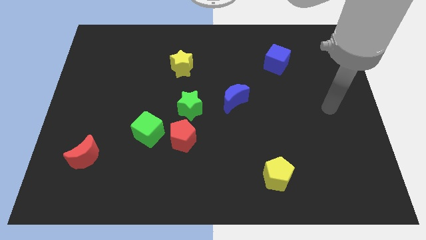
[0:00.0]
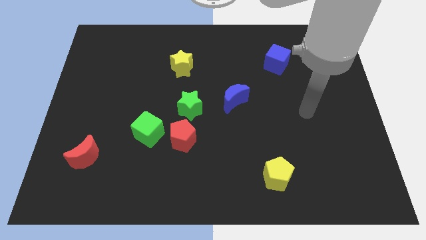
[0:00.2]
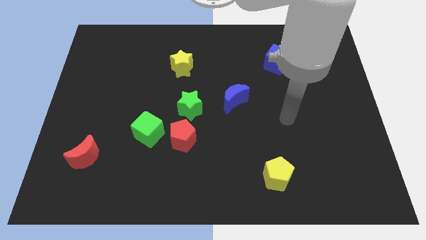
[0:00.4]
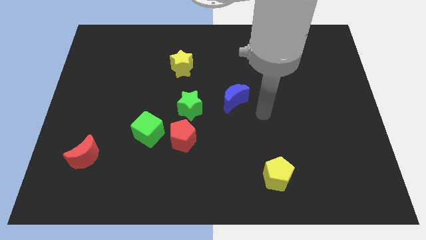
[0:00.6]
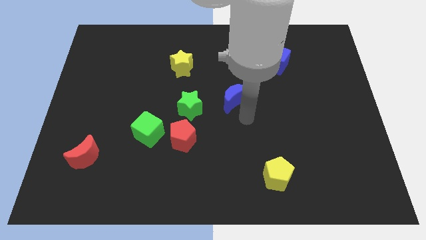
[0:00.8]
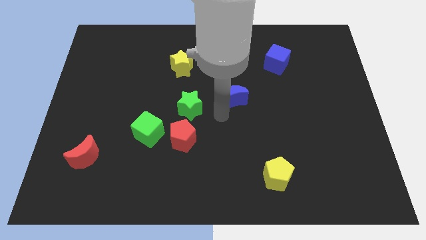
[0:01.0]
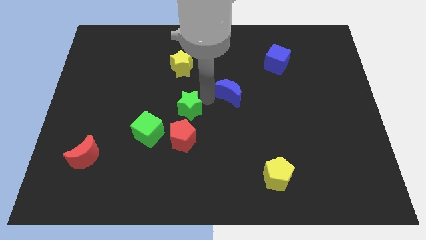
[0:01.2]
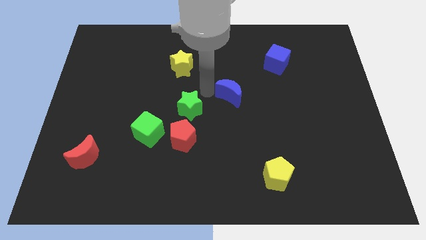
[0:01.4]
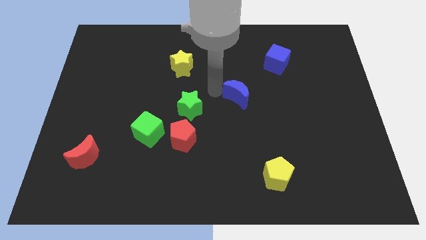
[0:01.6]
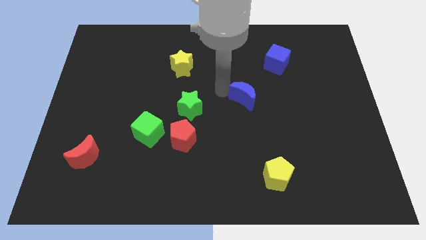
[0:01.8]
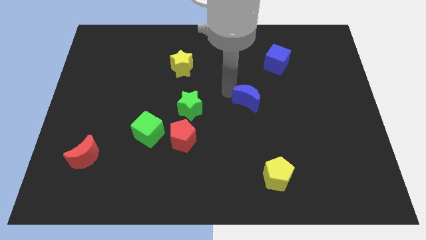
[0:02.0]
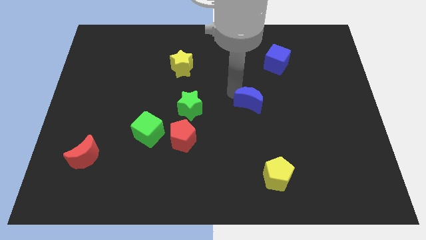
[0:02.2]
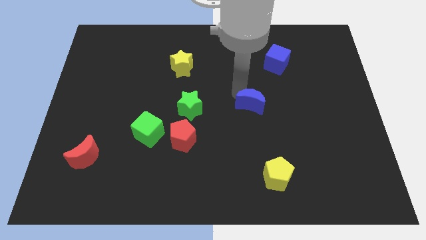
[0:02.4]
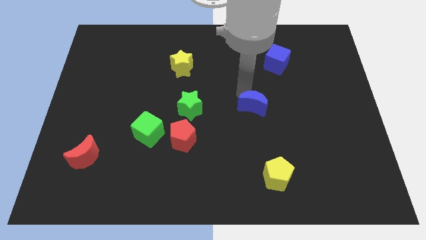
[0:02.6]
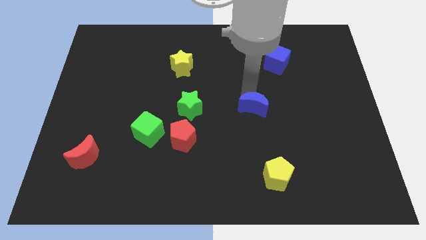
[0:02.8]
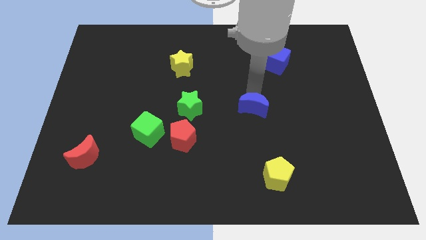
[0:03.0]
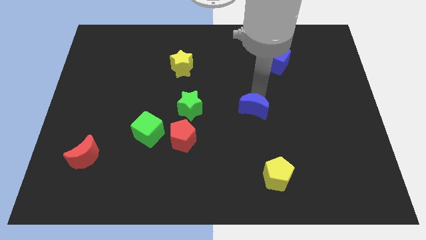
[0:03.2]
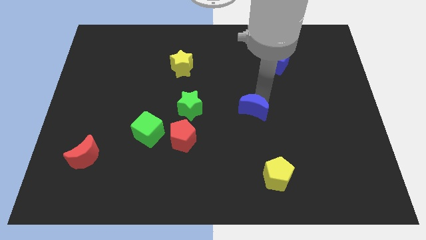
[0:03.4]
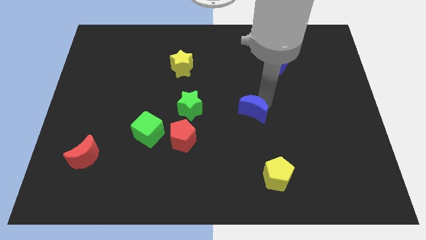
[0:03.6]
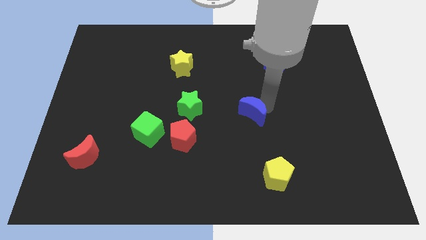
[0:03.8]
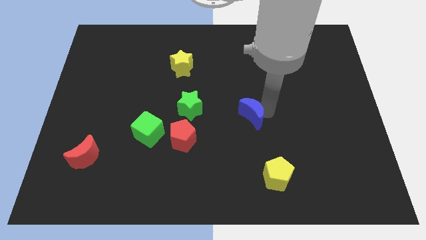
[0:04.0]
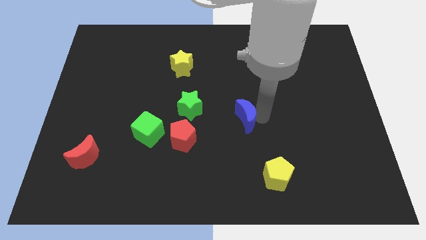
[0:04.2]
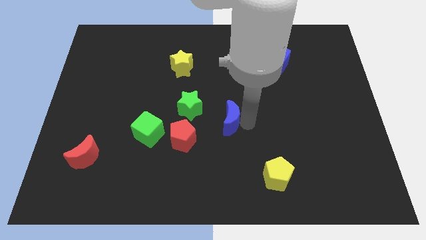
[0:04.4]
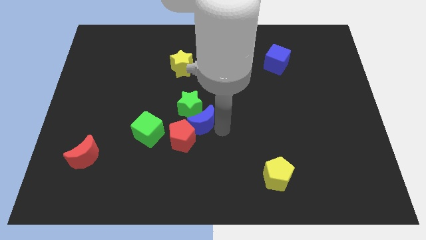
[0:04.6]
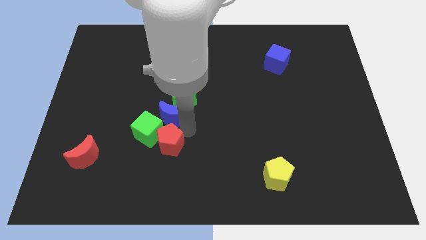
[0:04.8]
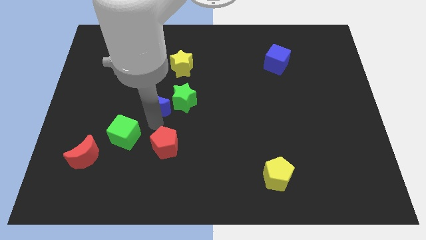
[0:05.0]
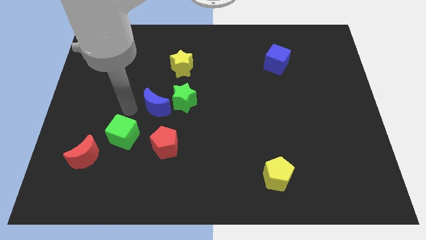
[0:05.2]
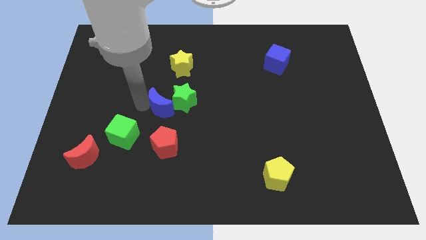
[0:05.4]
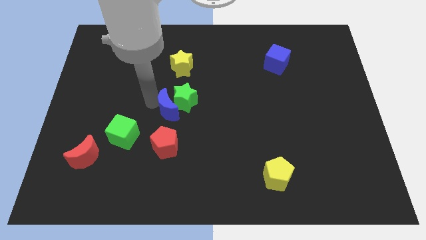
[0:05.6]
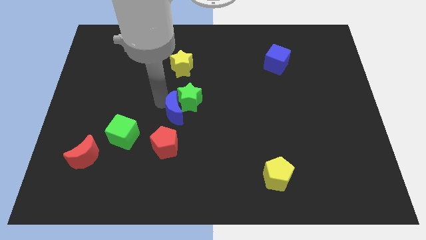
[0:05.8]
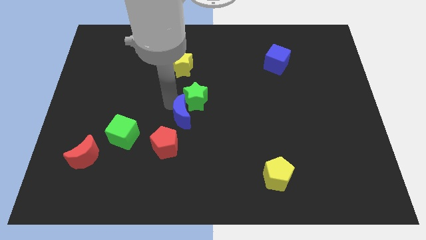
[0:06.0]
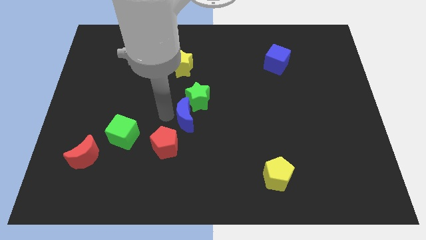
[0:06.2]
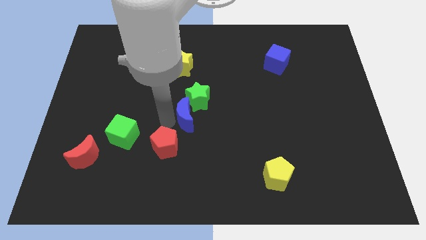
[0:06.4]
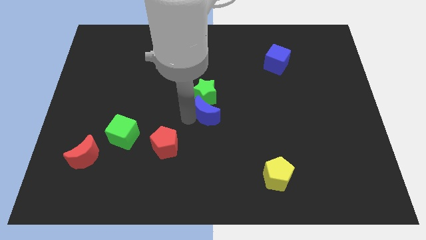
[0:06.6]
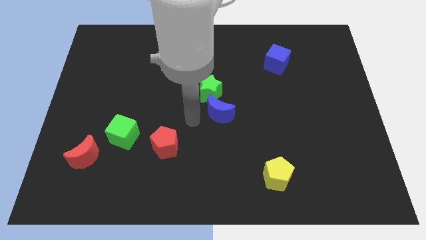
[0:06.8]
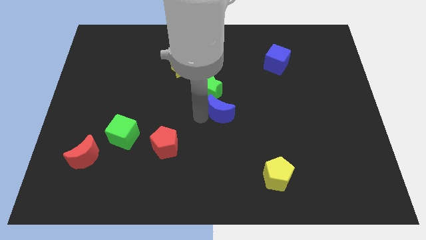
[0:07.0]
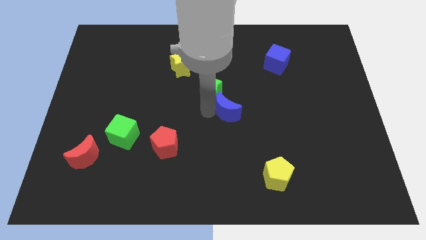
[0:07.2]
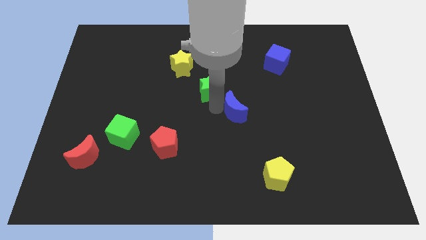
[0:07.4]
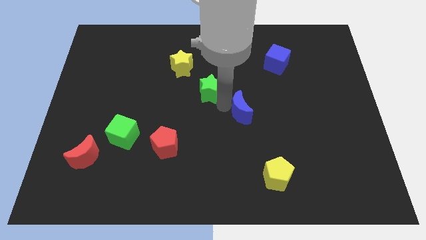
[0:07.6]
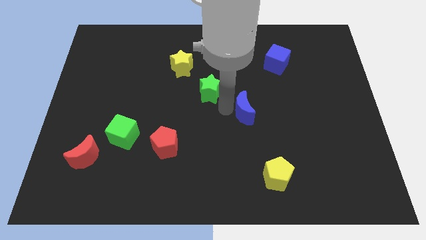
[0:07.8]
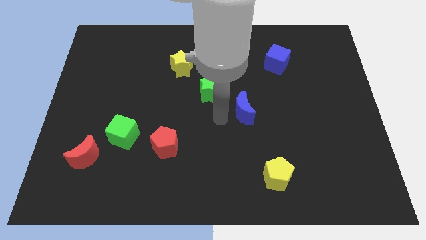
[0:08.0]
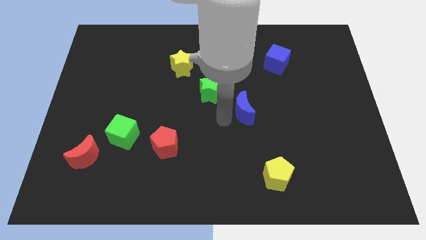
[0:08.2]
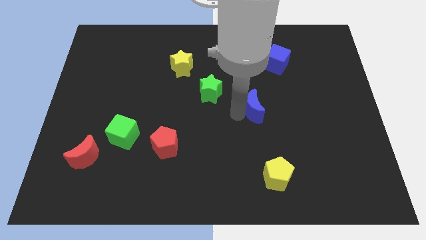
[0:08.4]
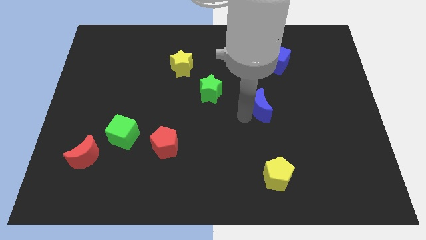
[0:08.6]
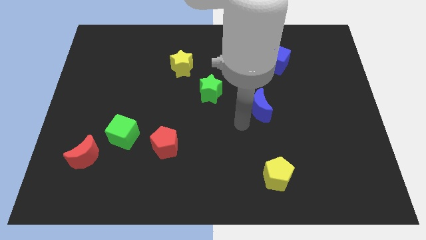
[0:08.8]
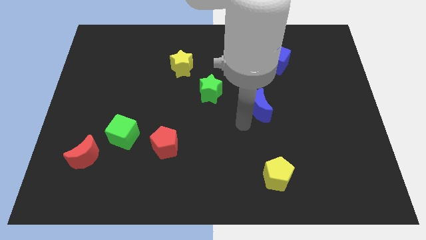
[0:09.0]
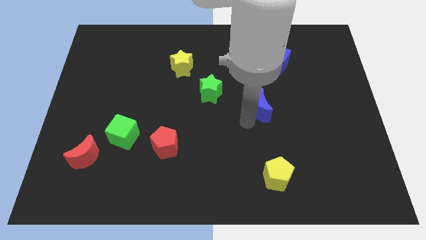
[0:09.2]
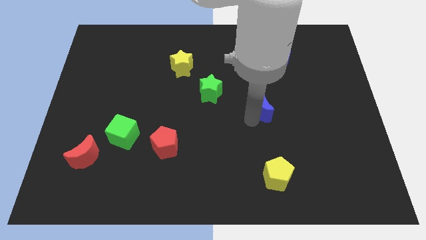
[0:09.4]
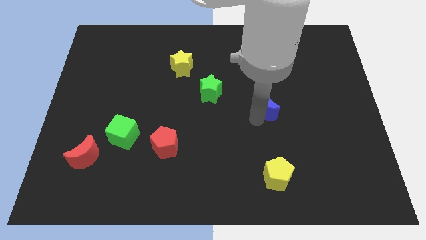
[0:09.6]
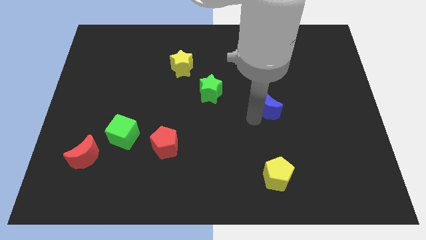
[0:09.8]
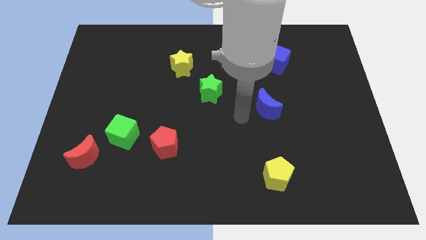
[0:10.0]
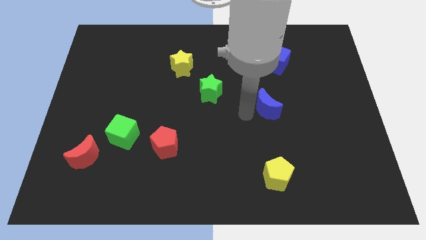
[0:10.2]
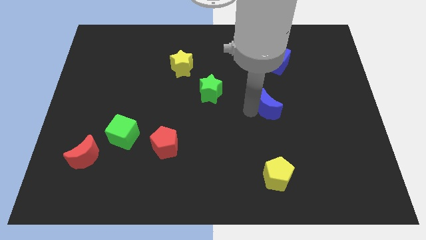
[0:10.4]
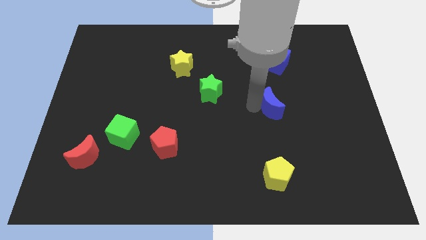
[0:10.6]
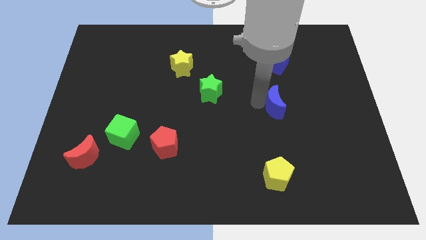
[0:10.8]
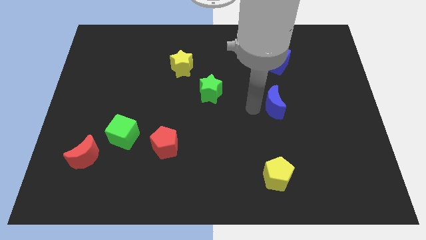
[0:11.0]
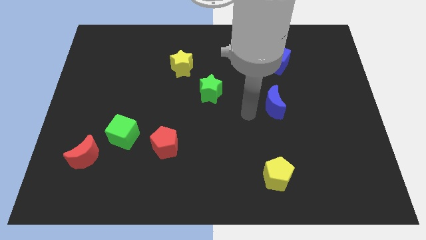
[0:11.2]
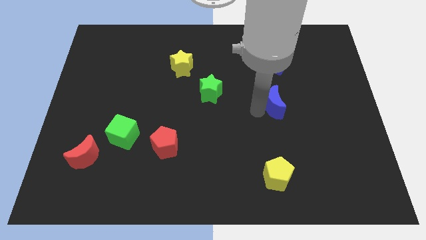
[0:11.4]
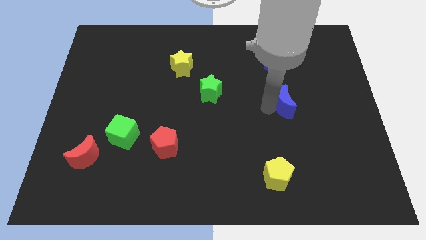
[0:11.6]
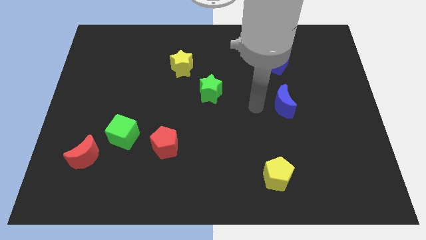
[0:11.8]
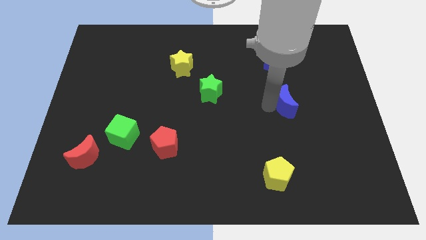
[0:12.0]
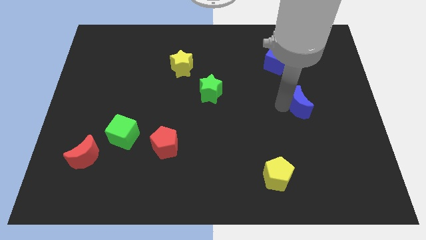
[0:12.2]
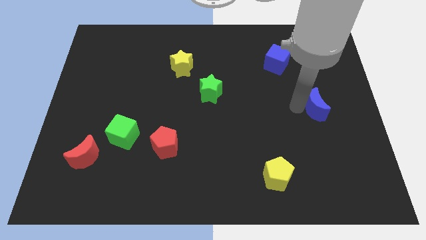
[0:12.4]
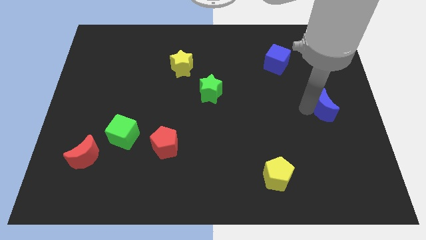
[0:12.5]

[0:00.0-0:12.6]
push the blue moon to the center right
